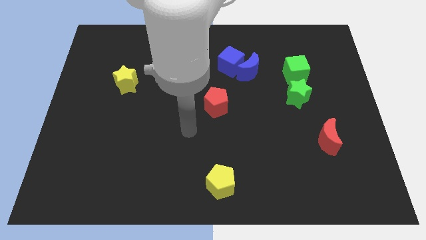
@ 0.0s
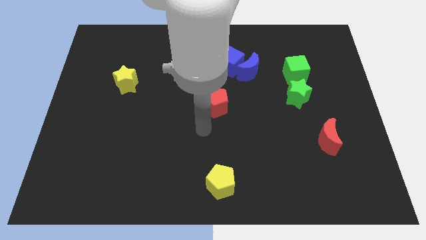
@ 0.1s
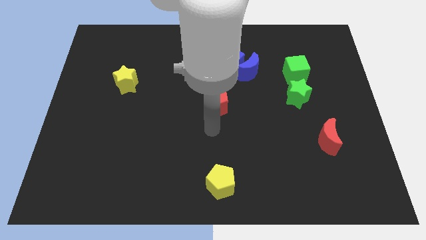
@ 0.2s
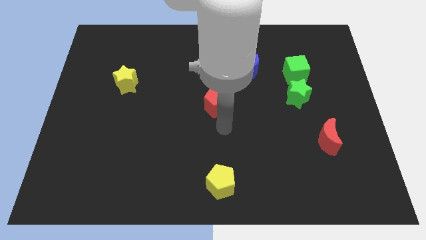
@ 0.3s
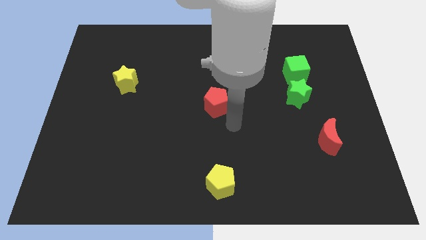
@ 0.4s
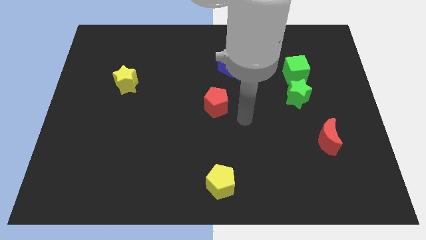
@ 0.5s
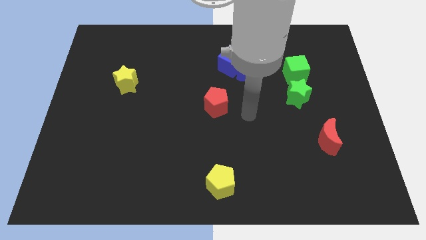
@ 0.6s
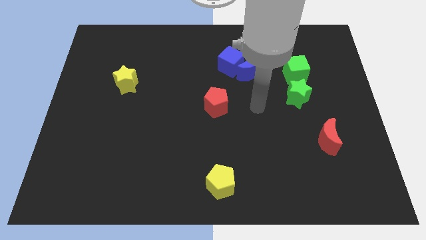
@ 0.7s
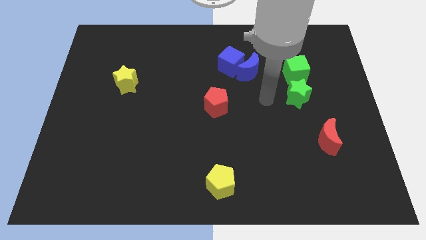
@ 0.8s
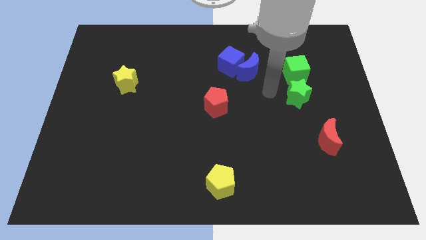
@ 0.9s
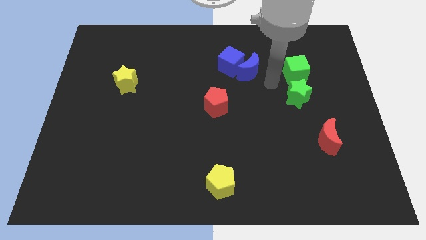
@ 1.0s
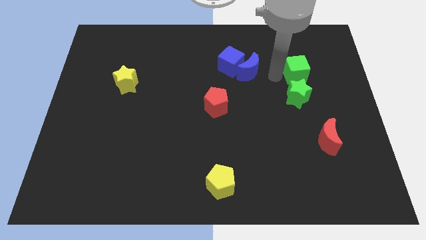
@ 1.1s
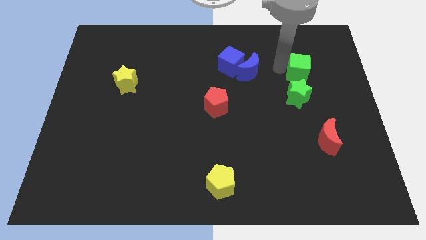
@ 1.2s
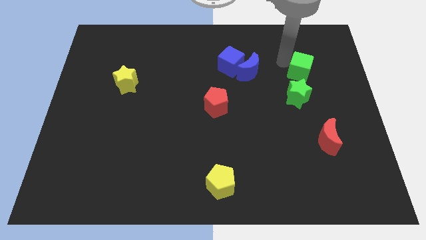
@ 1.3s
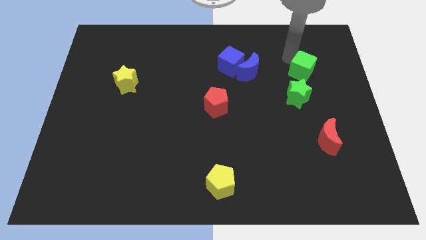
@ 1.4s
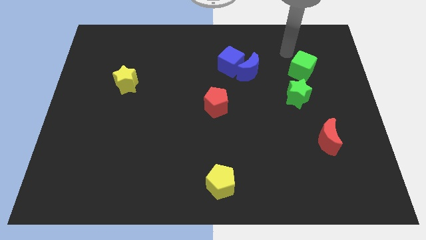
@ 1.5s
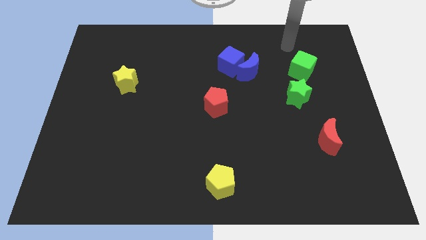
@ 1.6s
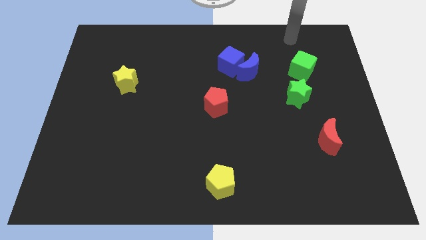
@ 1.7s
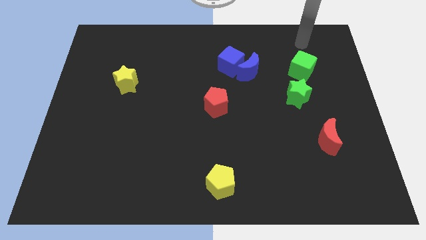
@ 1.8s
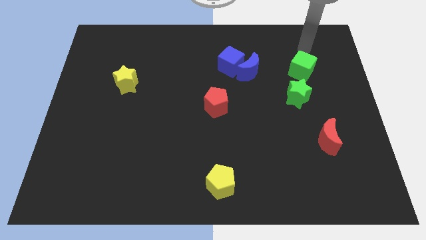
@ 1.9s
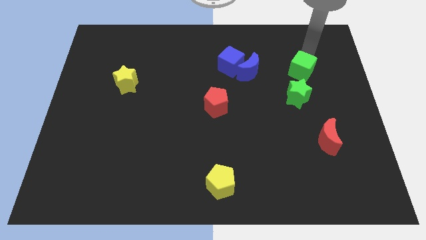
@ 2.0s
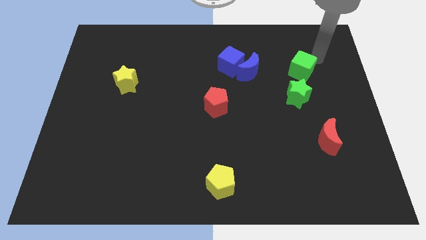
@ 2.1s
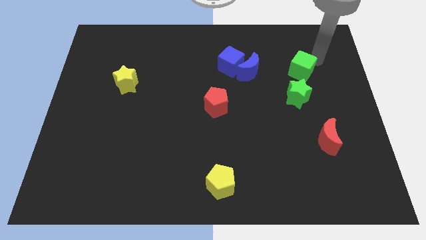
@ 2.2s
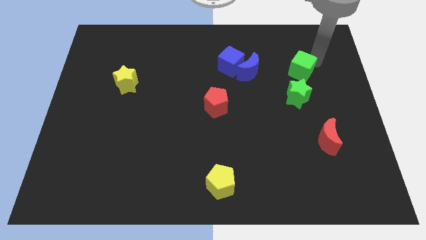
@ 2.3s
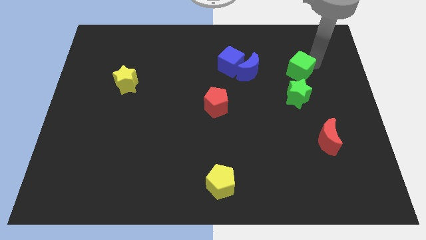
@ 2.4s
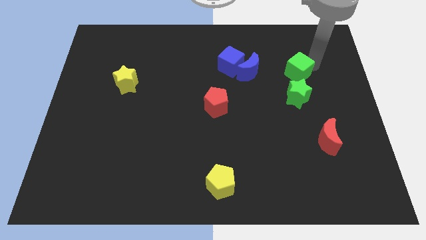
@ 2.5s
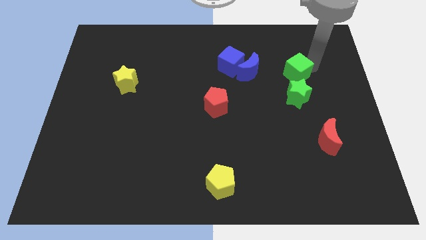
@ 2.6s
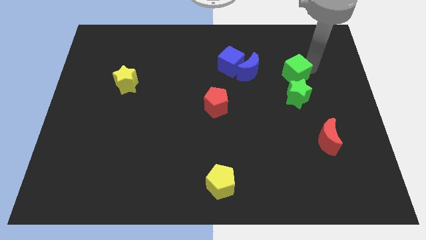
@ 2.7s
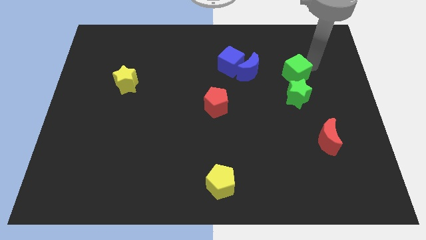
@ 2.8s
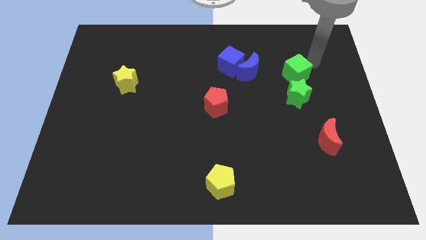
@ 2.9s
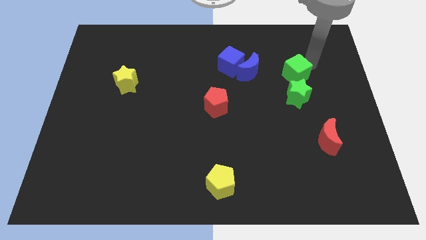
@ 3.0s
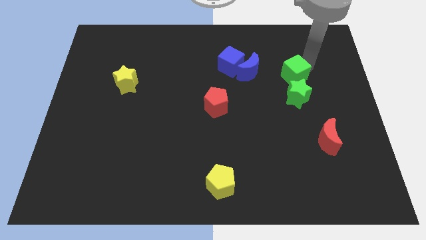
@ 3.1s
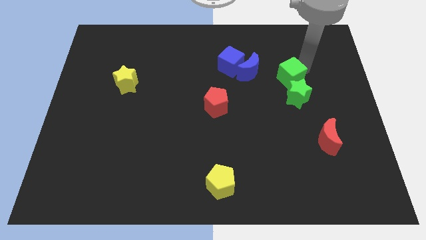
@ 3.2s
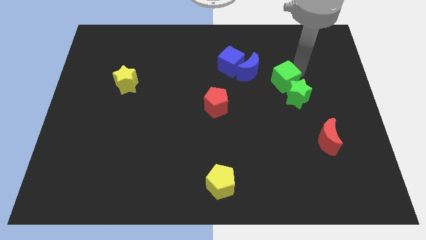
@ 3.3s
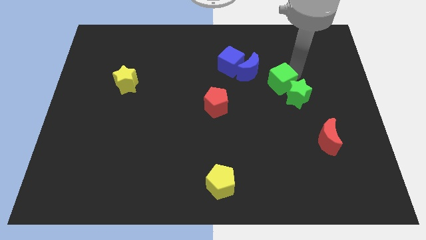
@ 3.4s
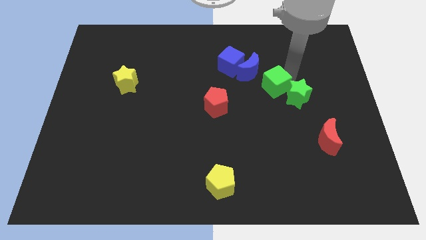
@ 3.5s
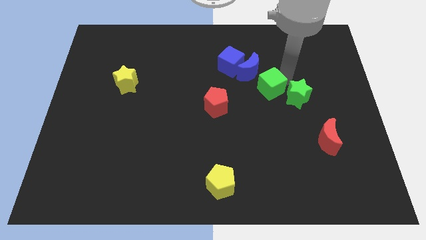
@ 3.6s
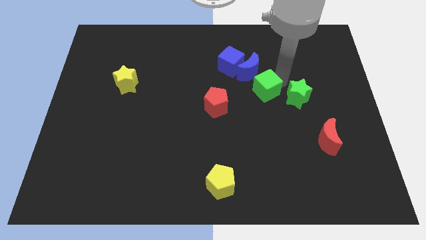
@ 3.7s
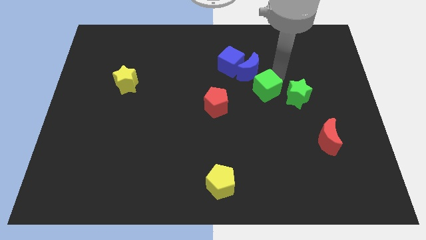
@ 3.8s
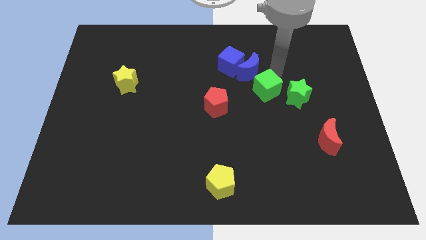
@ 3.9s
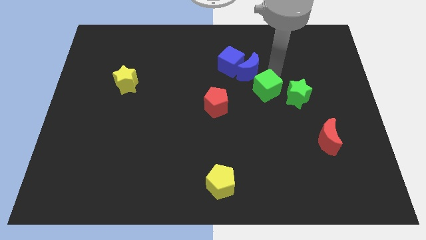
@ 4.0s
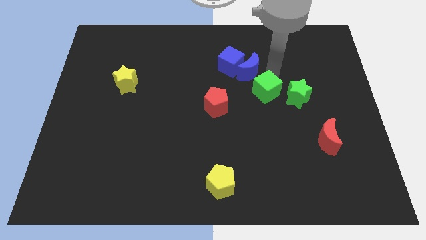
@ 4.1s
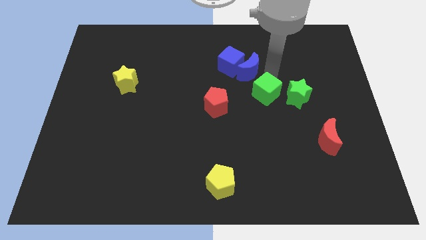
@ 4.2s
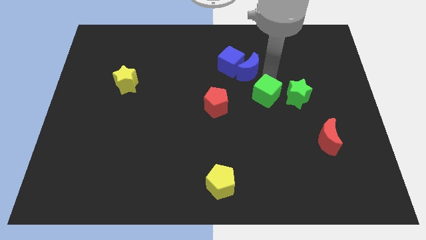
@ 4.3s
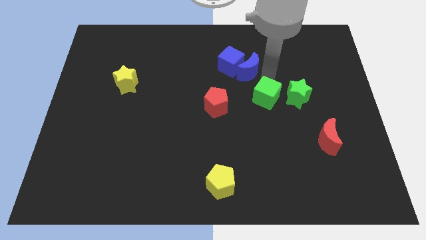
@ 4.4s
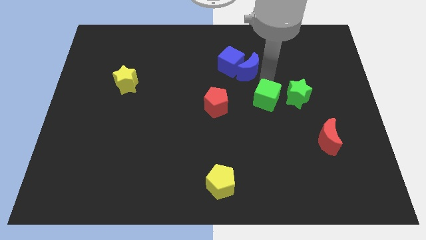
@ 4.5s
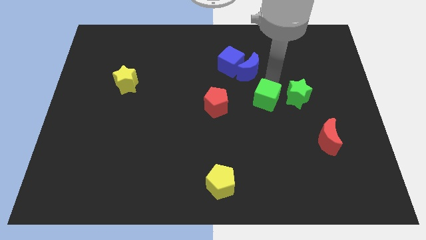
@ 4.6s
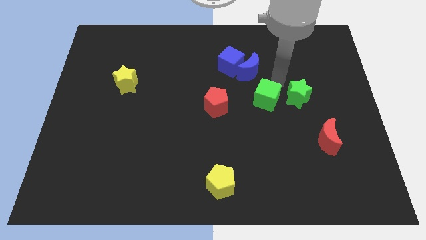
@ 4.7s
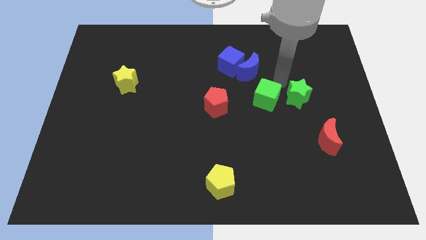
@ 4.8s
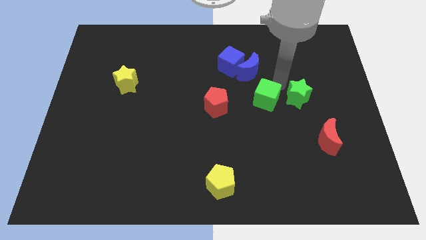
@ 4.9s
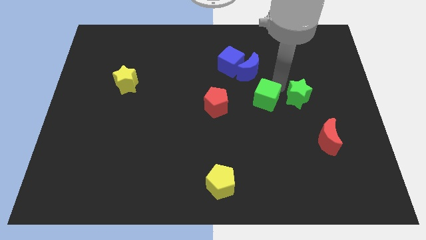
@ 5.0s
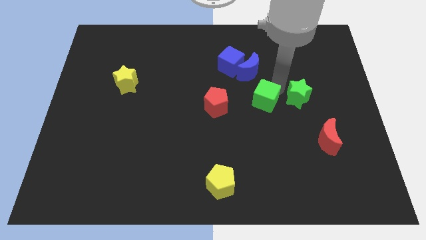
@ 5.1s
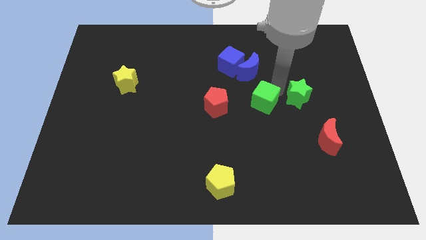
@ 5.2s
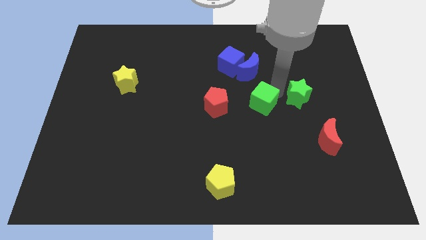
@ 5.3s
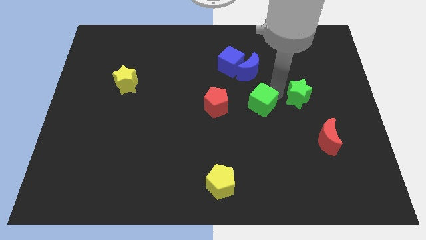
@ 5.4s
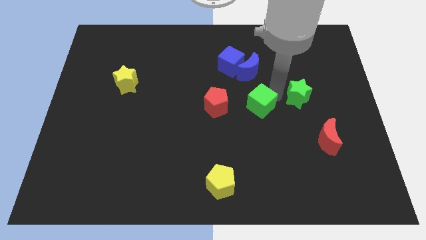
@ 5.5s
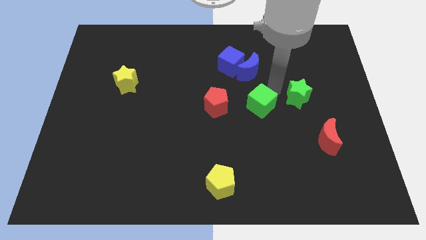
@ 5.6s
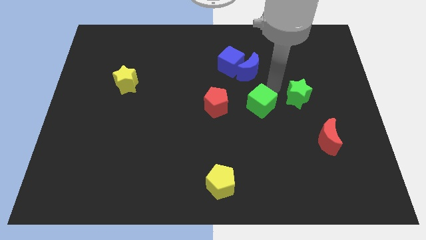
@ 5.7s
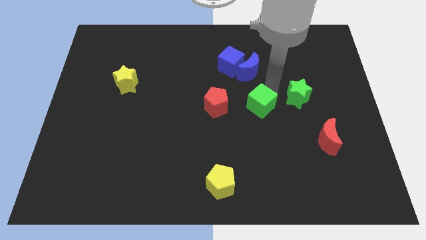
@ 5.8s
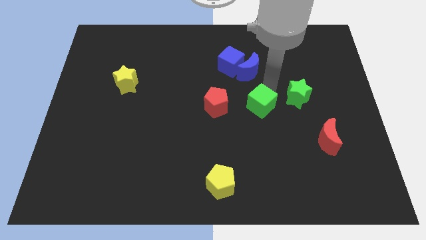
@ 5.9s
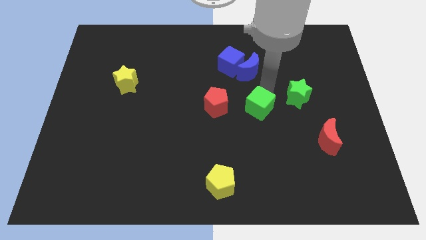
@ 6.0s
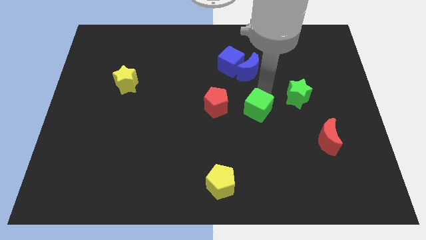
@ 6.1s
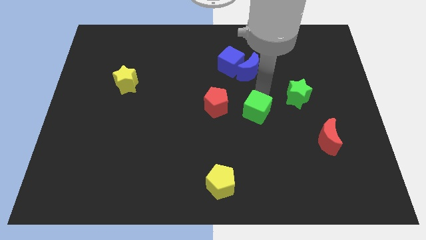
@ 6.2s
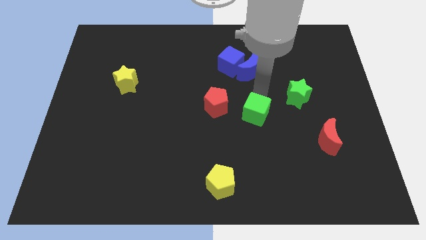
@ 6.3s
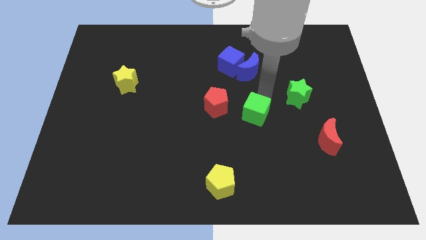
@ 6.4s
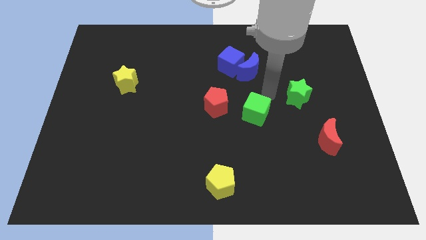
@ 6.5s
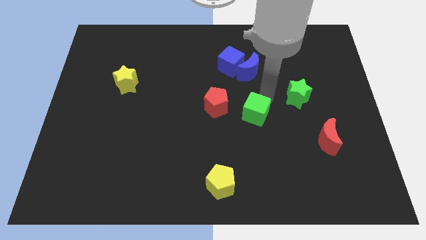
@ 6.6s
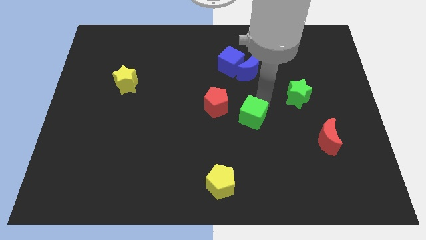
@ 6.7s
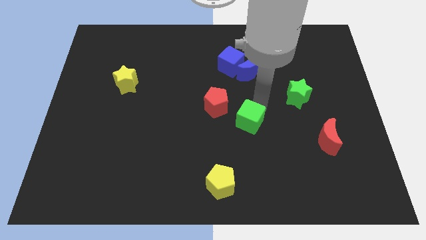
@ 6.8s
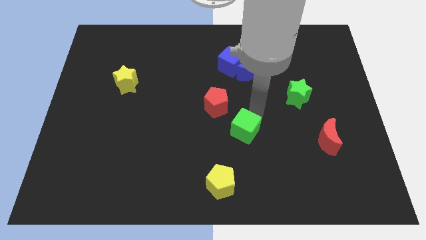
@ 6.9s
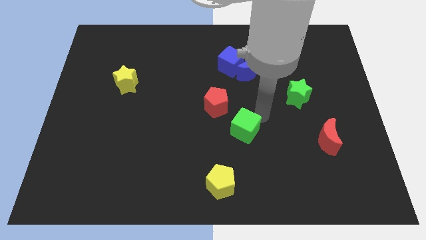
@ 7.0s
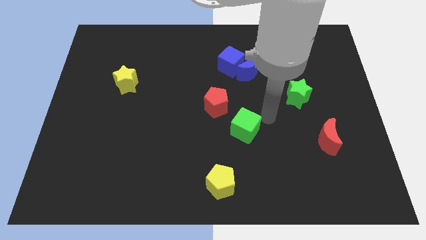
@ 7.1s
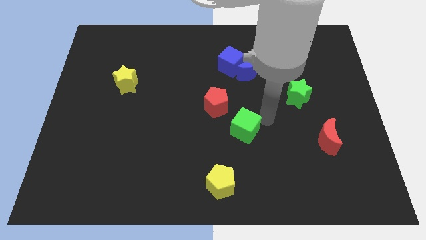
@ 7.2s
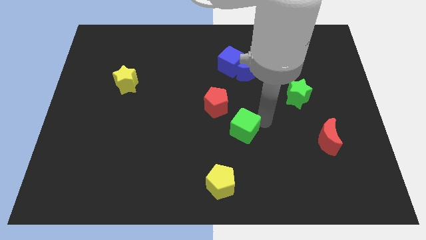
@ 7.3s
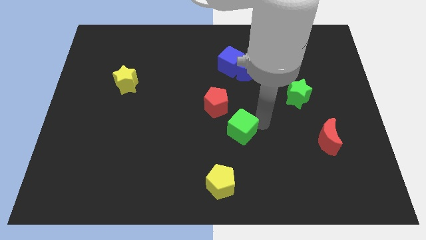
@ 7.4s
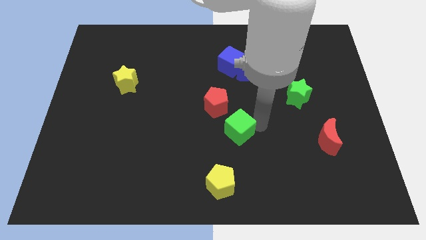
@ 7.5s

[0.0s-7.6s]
slide the green cube to the top side of the yellow pentagon
